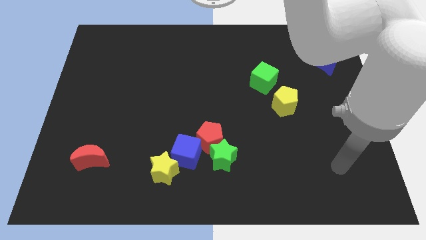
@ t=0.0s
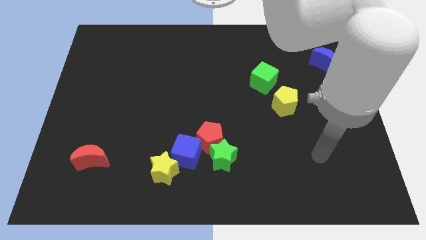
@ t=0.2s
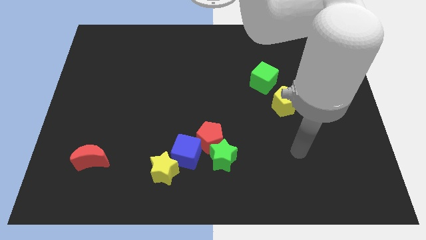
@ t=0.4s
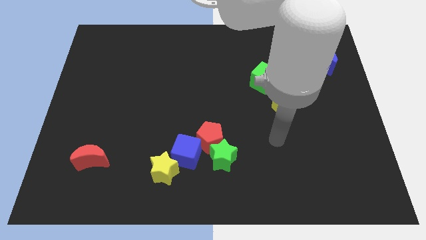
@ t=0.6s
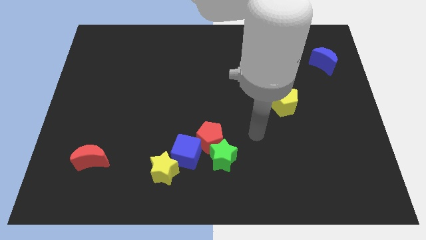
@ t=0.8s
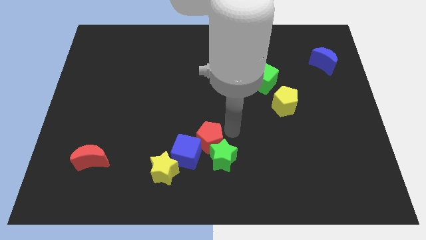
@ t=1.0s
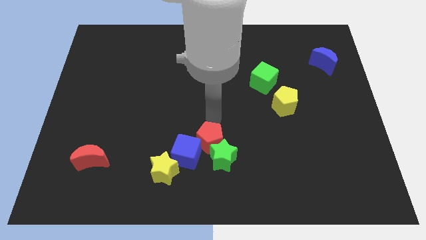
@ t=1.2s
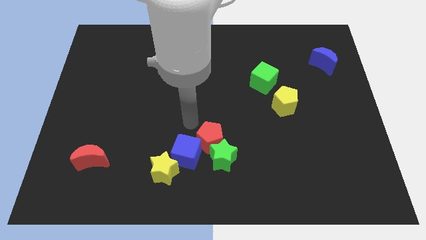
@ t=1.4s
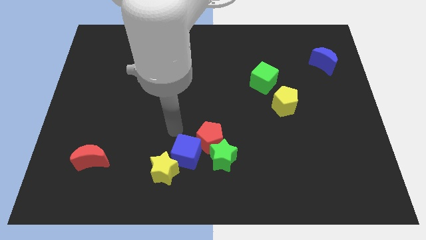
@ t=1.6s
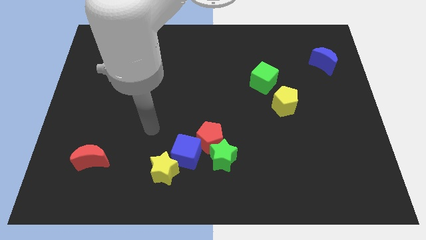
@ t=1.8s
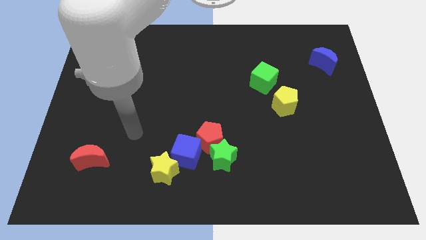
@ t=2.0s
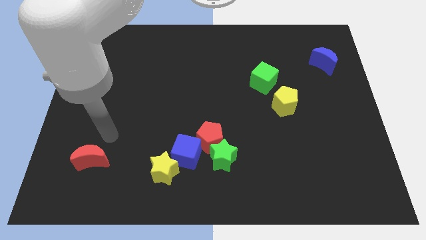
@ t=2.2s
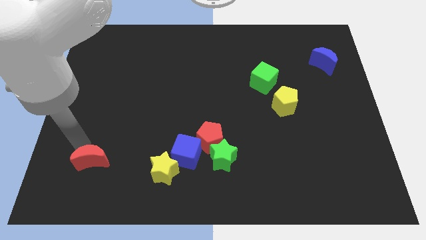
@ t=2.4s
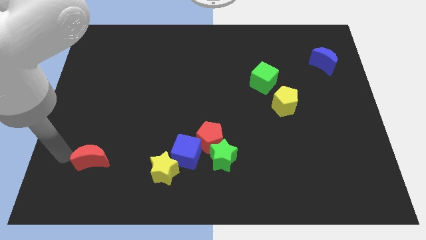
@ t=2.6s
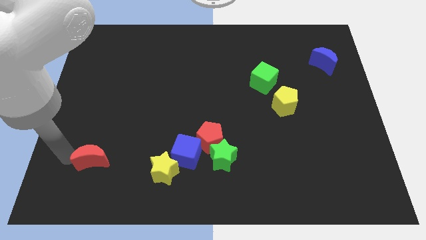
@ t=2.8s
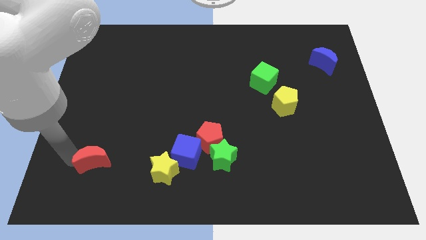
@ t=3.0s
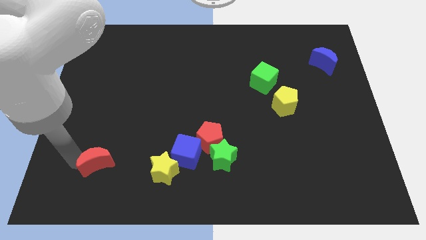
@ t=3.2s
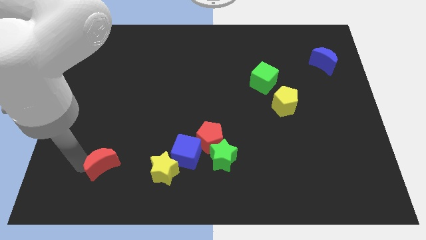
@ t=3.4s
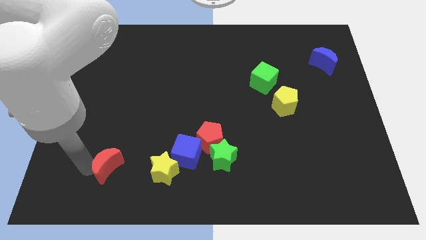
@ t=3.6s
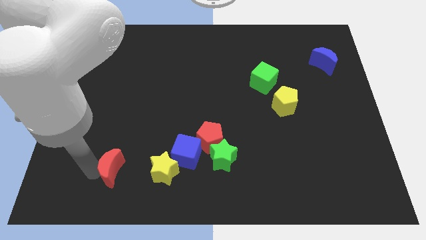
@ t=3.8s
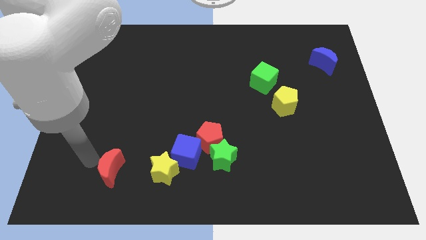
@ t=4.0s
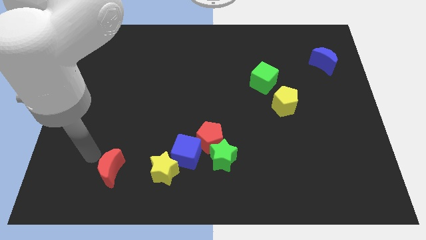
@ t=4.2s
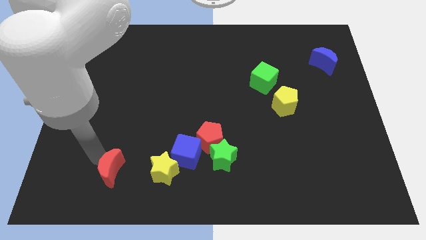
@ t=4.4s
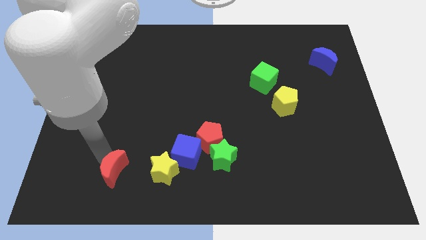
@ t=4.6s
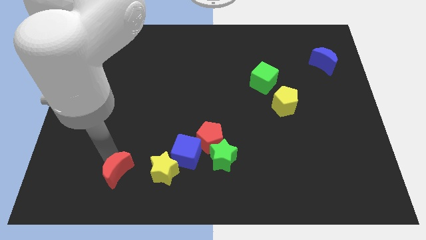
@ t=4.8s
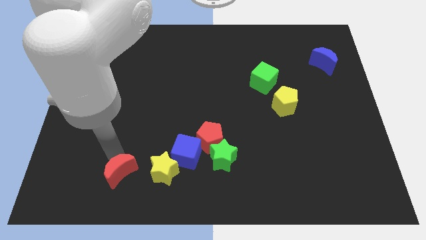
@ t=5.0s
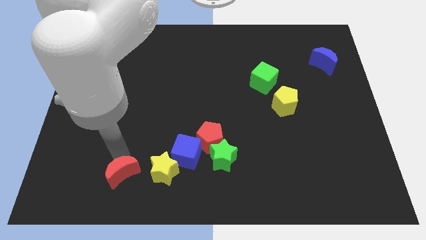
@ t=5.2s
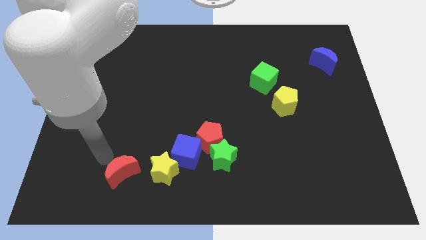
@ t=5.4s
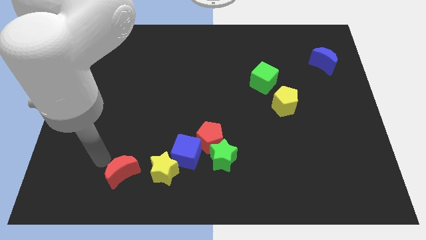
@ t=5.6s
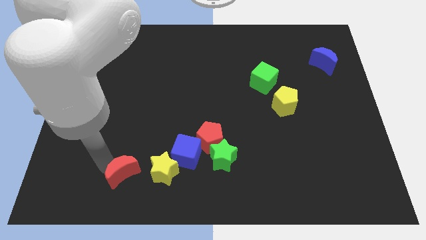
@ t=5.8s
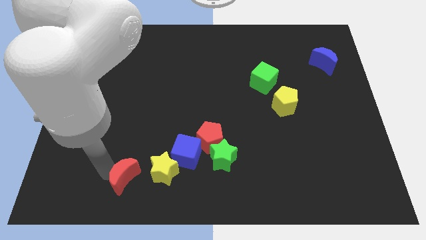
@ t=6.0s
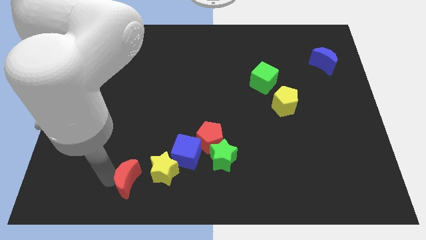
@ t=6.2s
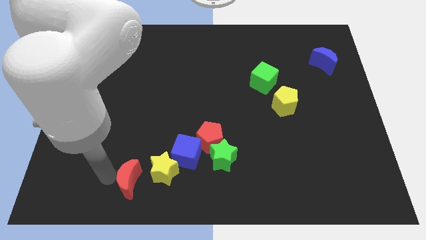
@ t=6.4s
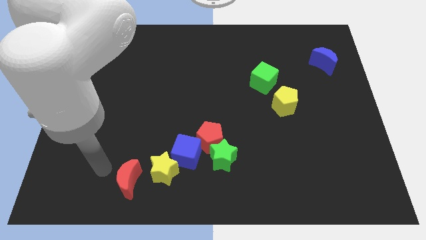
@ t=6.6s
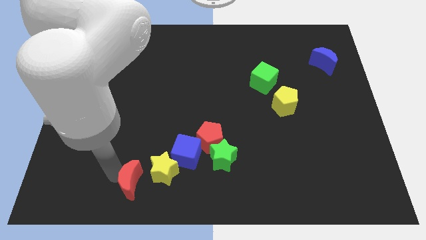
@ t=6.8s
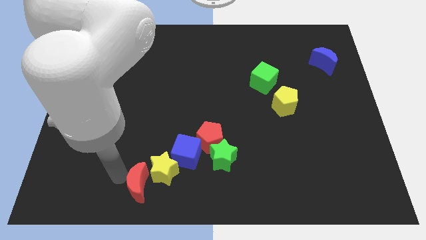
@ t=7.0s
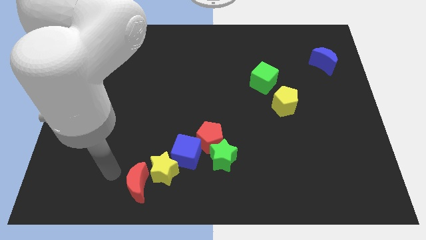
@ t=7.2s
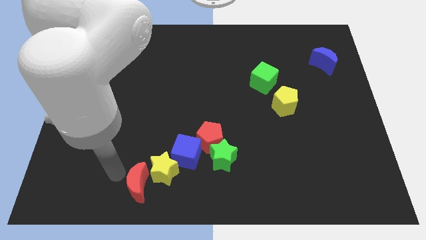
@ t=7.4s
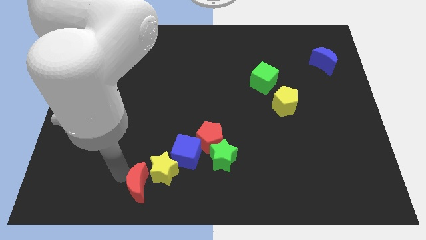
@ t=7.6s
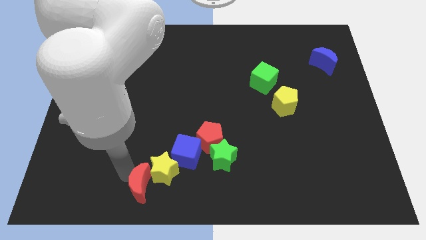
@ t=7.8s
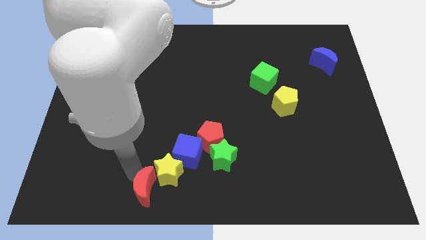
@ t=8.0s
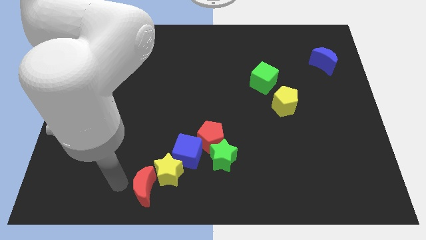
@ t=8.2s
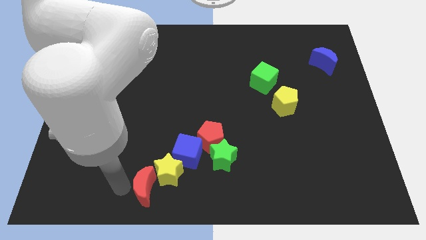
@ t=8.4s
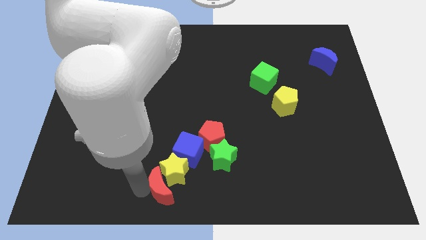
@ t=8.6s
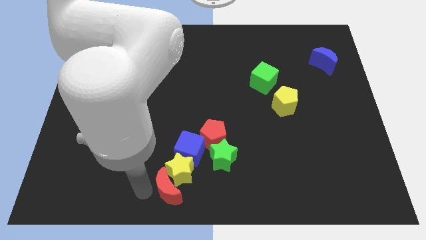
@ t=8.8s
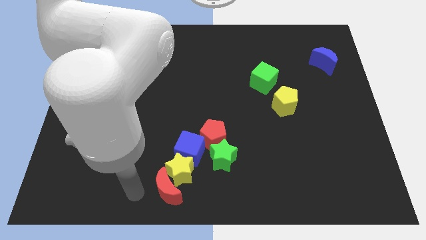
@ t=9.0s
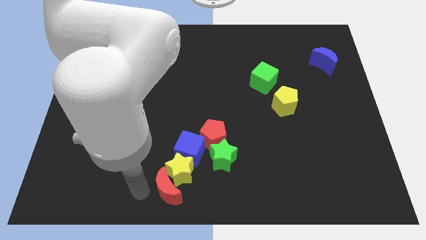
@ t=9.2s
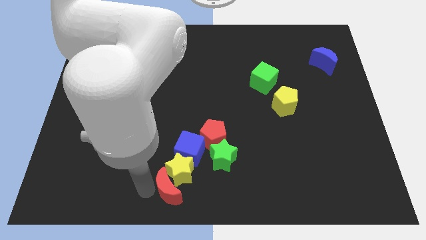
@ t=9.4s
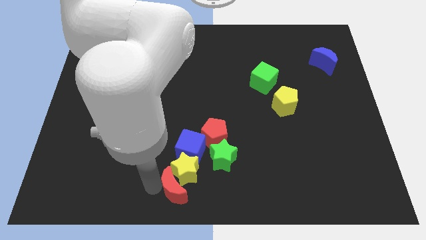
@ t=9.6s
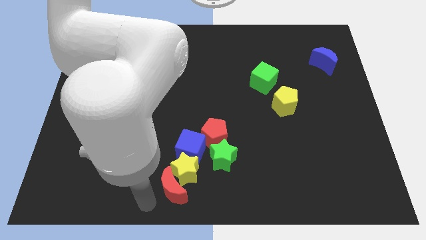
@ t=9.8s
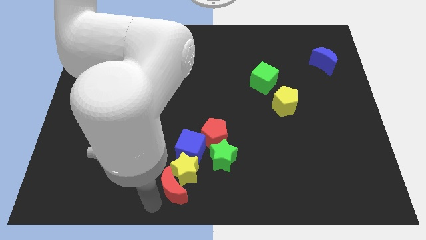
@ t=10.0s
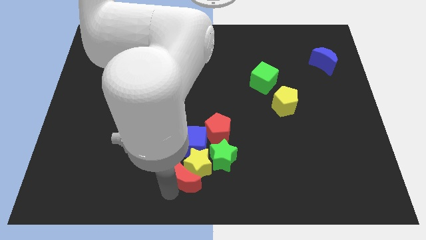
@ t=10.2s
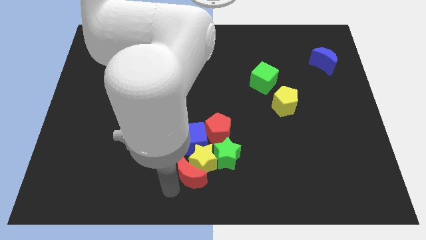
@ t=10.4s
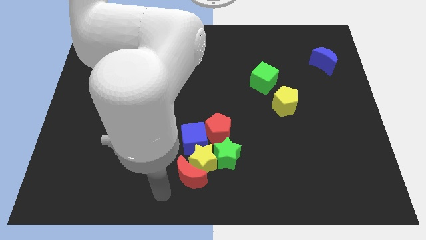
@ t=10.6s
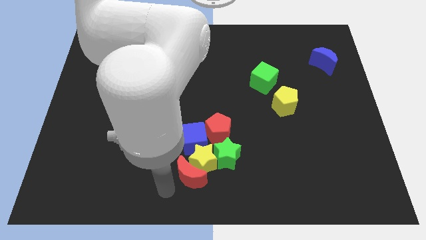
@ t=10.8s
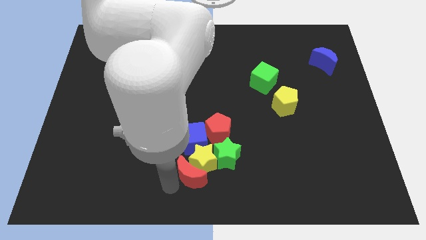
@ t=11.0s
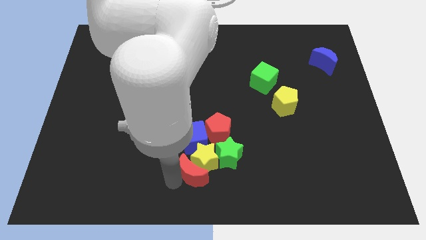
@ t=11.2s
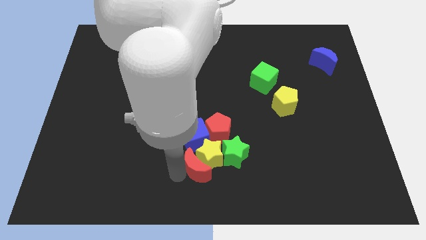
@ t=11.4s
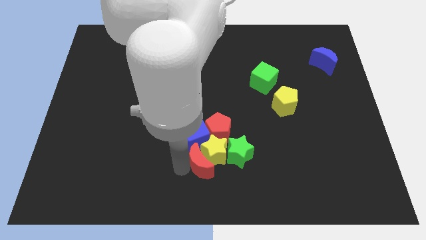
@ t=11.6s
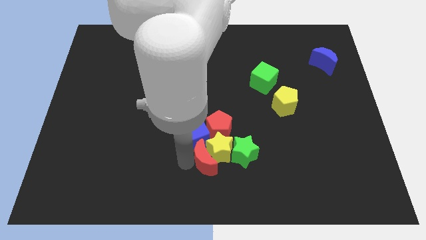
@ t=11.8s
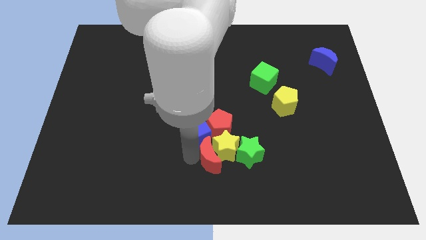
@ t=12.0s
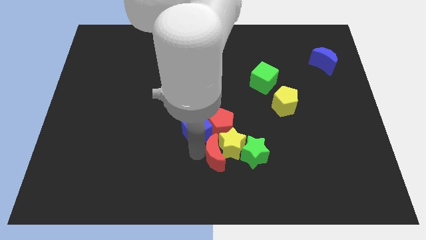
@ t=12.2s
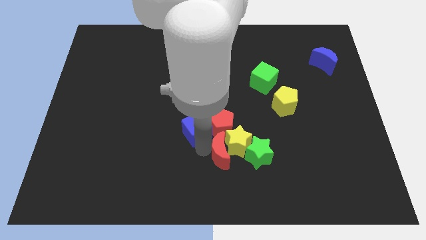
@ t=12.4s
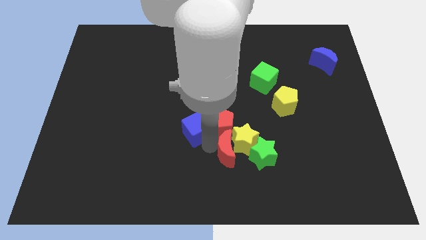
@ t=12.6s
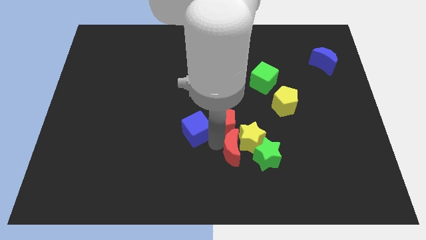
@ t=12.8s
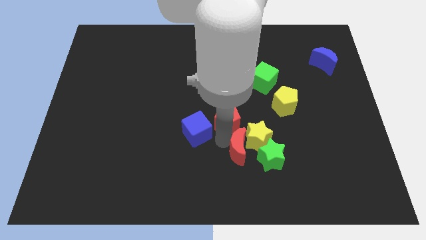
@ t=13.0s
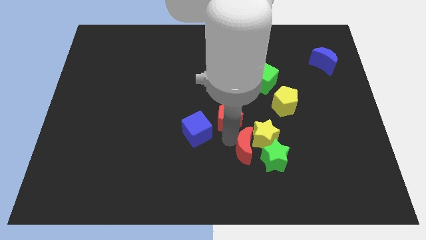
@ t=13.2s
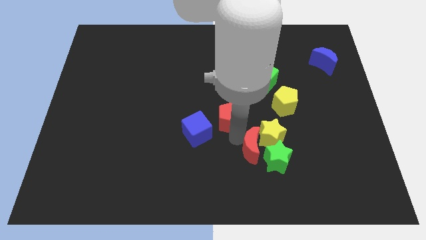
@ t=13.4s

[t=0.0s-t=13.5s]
push the red moon next to the green star

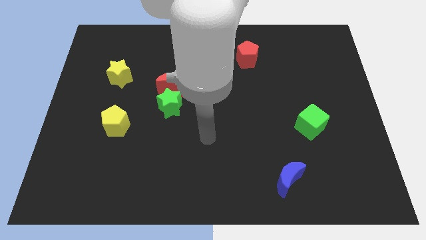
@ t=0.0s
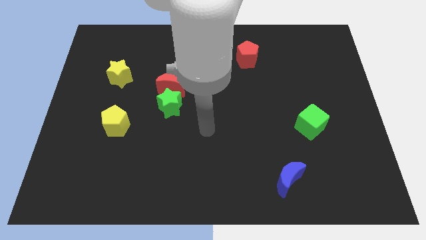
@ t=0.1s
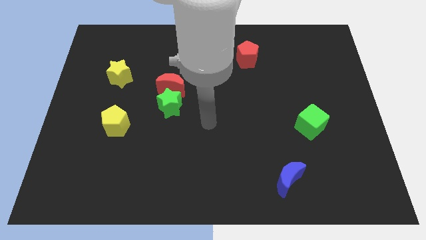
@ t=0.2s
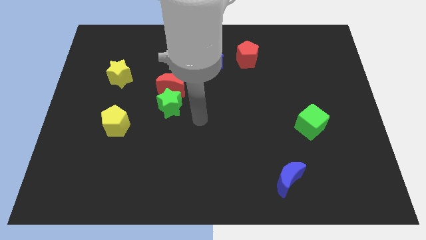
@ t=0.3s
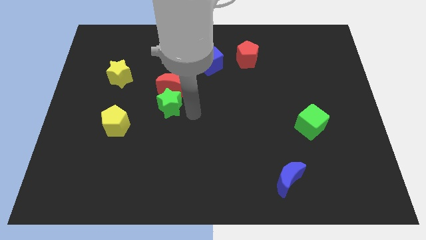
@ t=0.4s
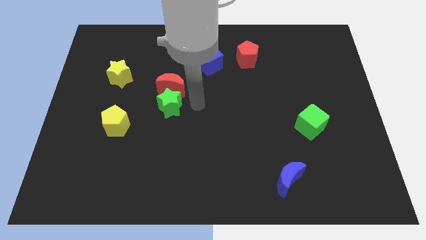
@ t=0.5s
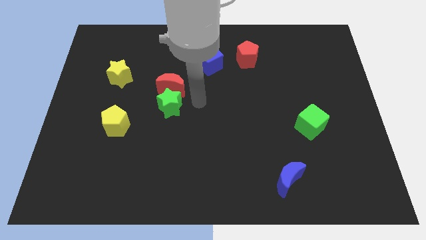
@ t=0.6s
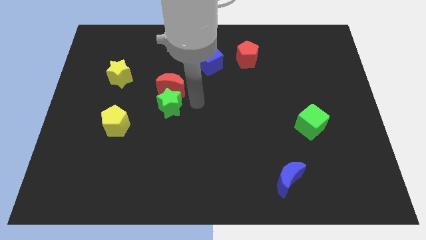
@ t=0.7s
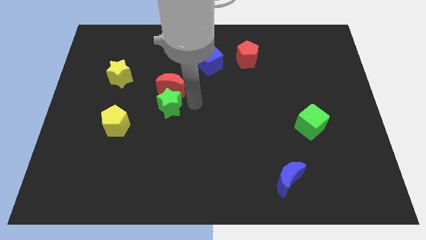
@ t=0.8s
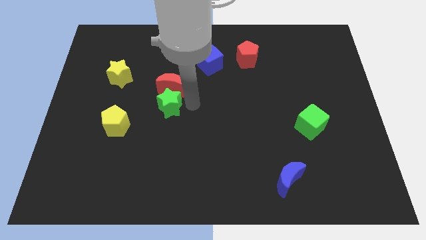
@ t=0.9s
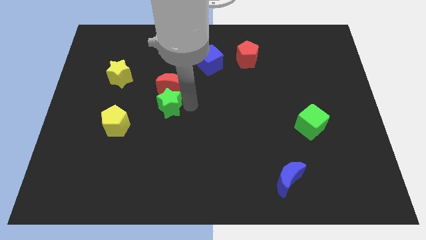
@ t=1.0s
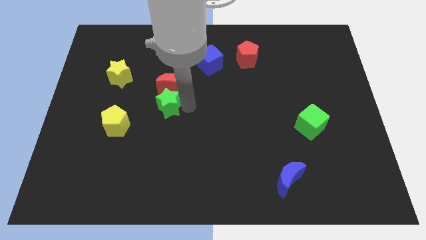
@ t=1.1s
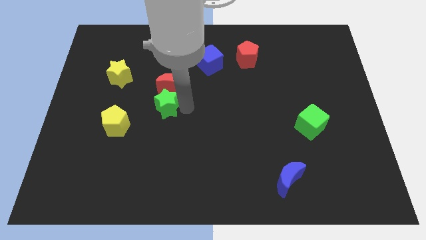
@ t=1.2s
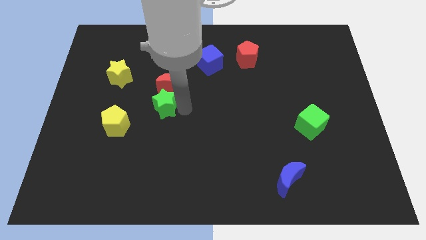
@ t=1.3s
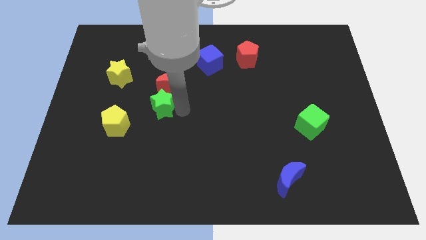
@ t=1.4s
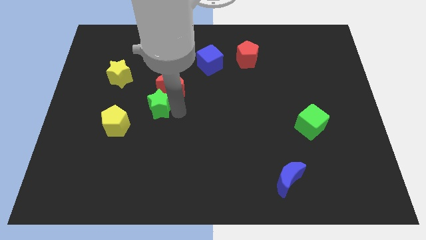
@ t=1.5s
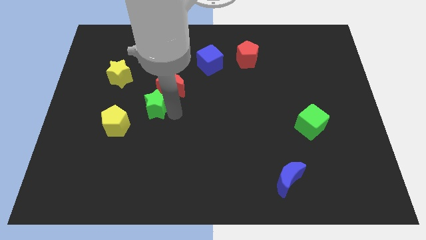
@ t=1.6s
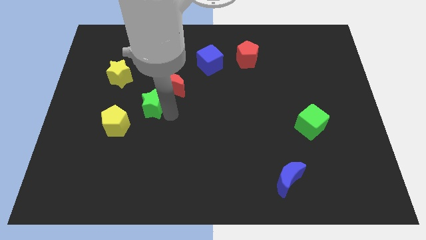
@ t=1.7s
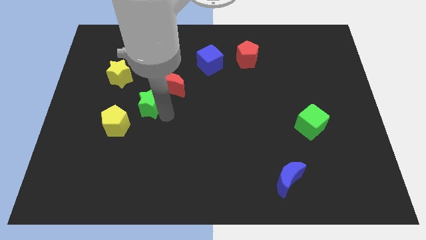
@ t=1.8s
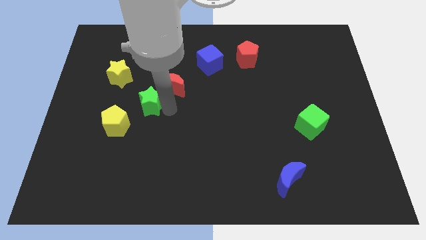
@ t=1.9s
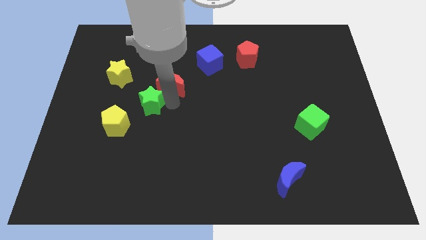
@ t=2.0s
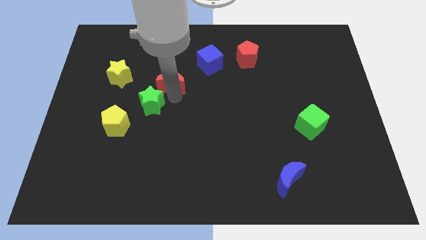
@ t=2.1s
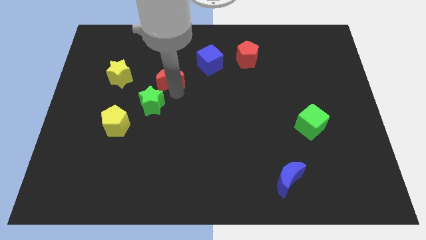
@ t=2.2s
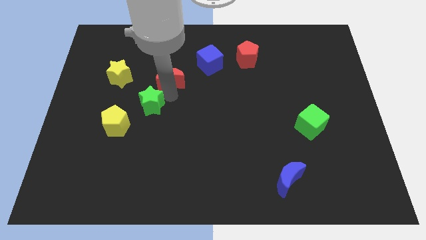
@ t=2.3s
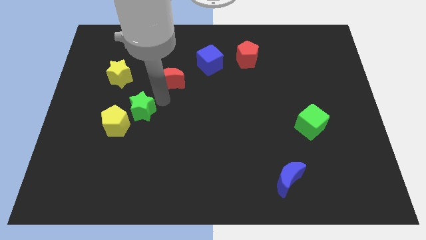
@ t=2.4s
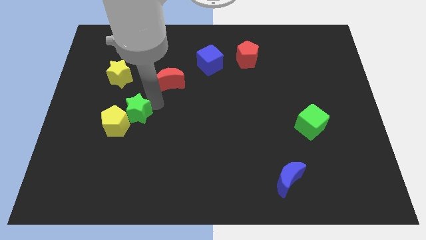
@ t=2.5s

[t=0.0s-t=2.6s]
slide the green star close to the yellow pentagon
